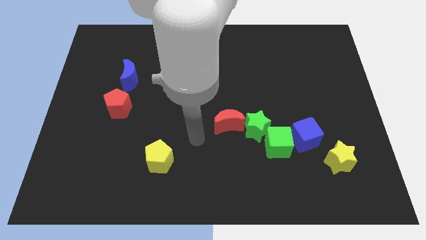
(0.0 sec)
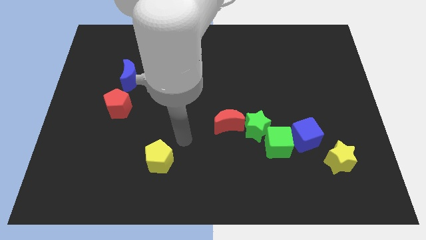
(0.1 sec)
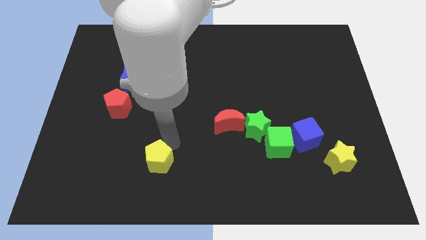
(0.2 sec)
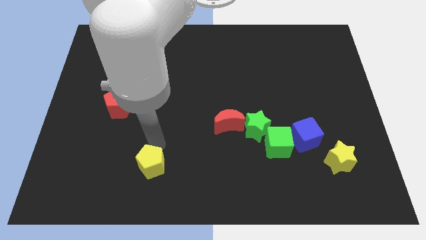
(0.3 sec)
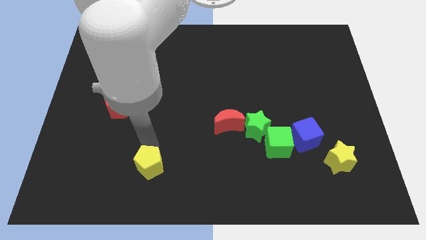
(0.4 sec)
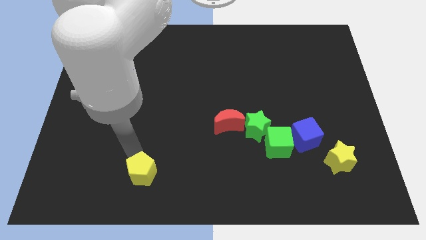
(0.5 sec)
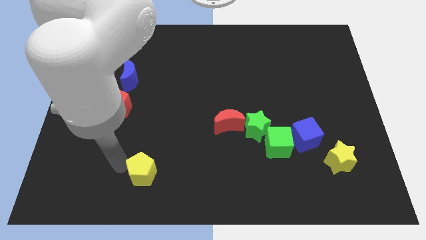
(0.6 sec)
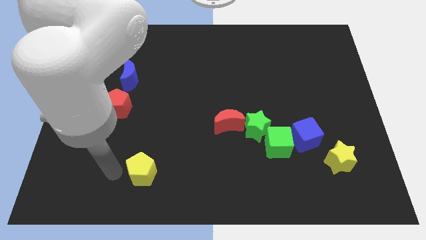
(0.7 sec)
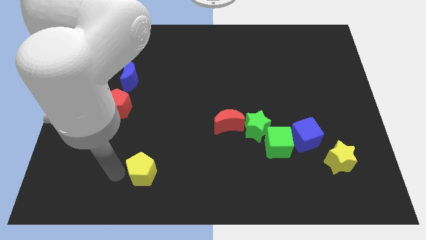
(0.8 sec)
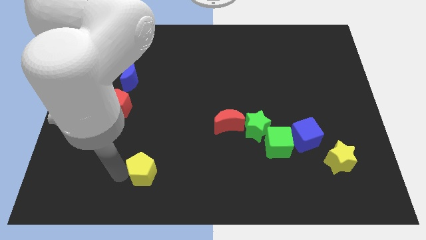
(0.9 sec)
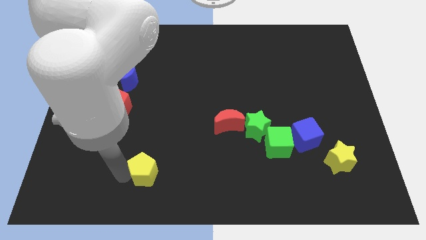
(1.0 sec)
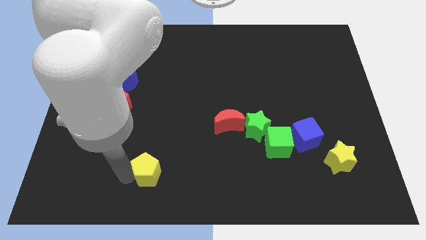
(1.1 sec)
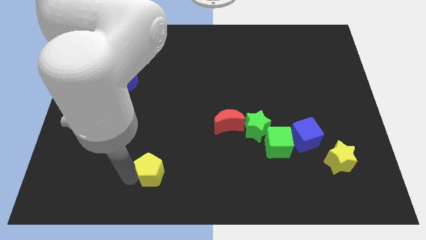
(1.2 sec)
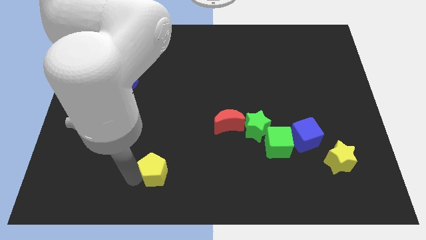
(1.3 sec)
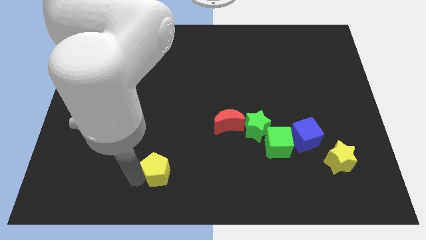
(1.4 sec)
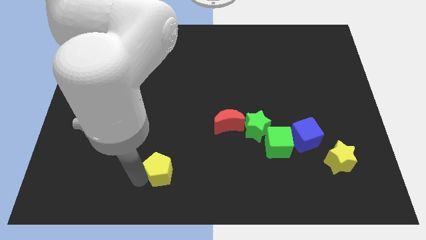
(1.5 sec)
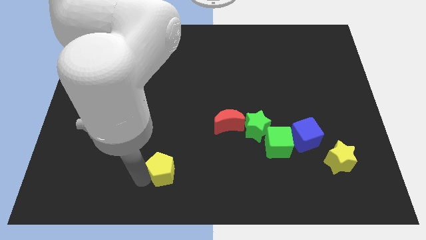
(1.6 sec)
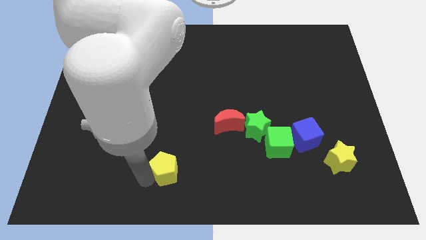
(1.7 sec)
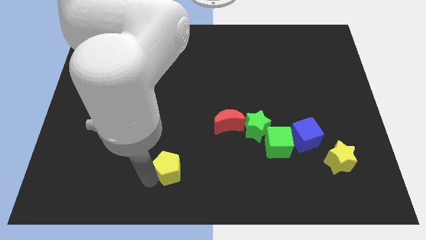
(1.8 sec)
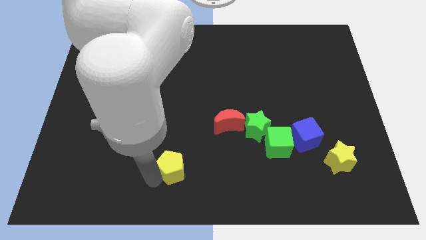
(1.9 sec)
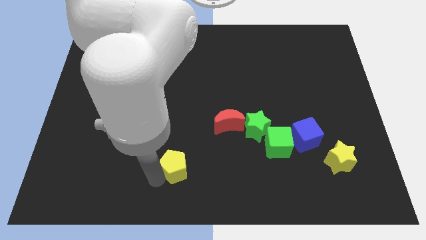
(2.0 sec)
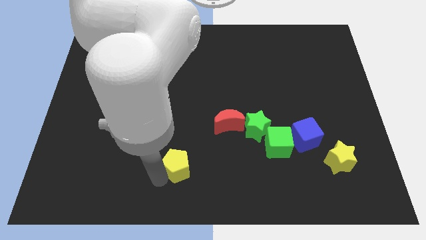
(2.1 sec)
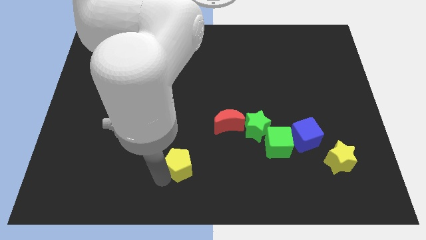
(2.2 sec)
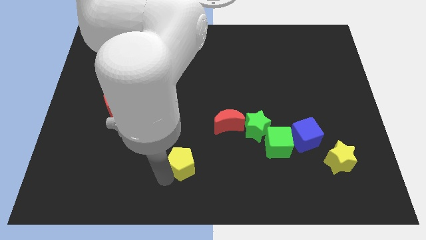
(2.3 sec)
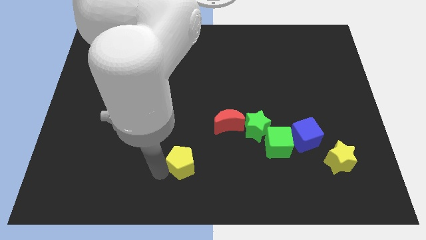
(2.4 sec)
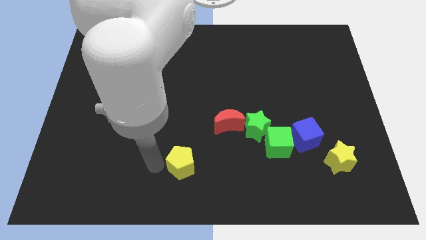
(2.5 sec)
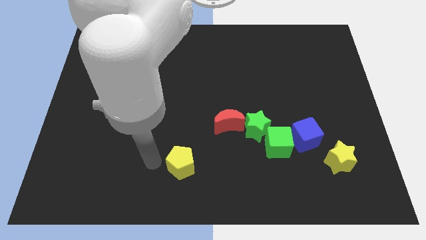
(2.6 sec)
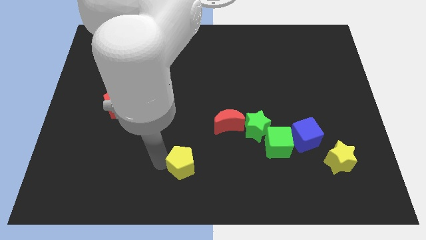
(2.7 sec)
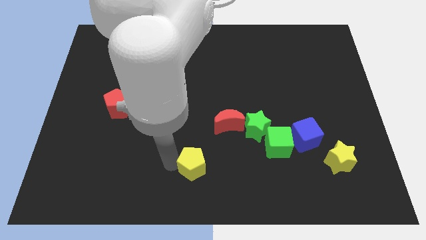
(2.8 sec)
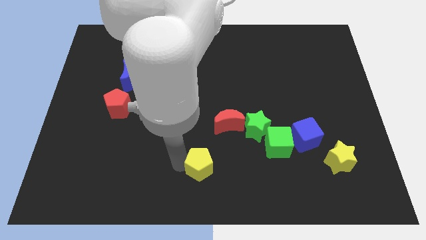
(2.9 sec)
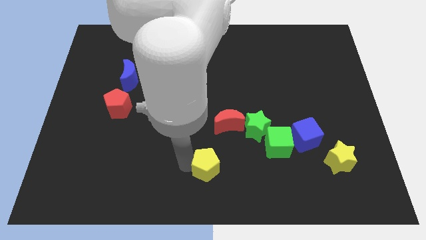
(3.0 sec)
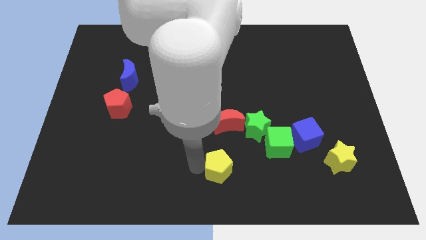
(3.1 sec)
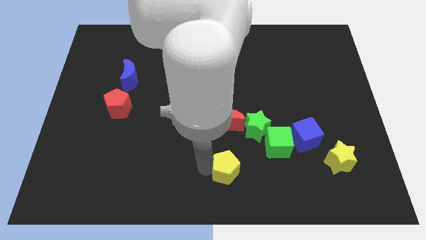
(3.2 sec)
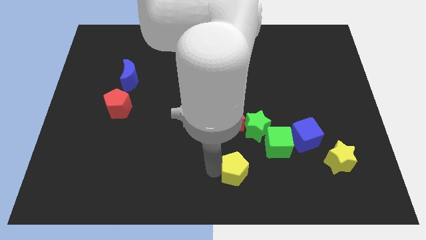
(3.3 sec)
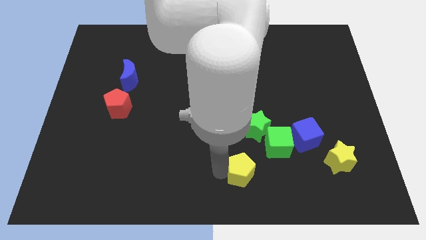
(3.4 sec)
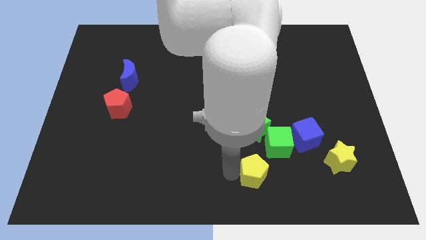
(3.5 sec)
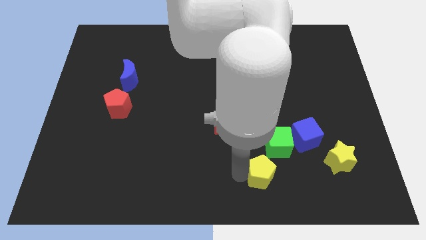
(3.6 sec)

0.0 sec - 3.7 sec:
move the yellow pentagon right

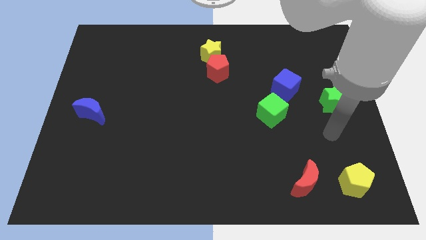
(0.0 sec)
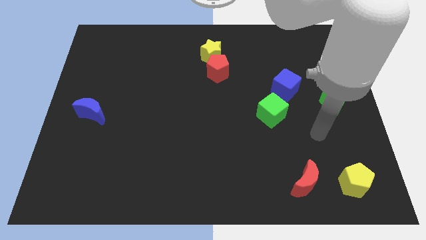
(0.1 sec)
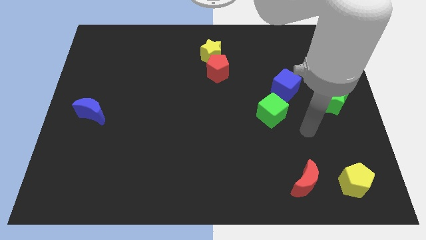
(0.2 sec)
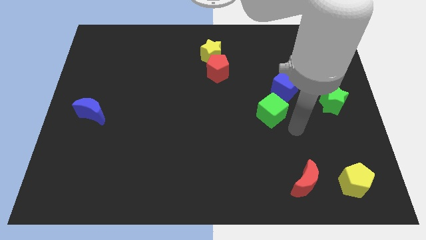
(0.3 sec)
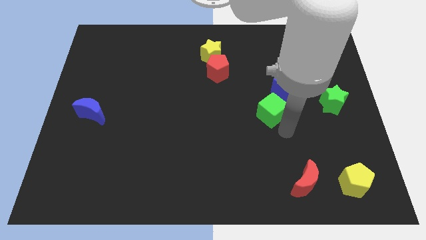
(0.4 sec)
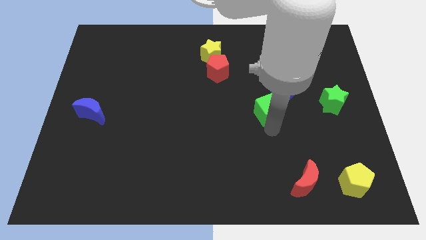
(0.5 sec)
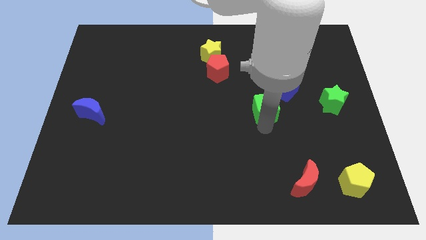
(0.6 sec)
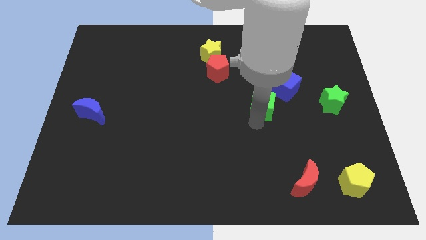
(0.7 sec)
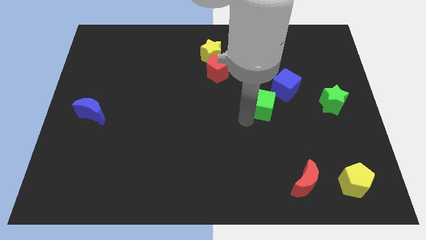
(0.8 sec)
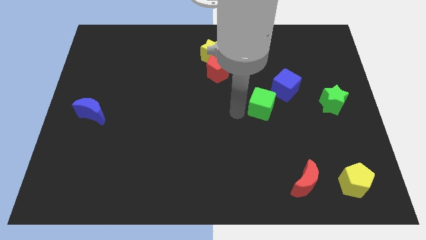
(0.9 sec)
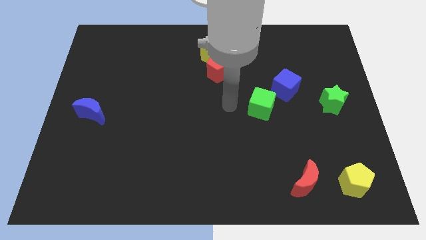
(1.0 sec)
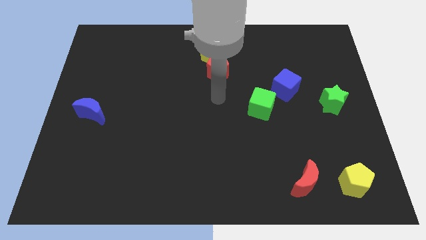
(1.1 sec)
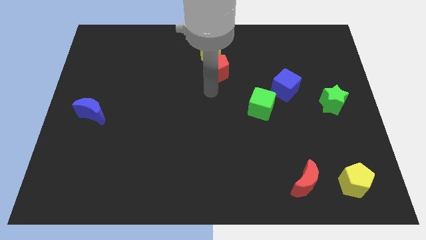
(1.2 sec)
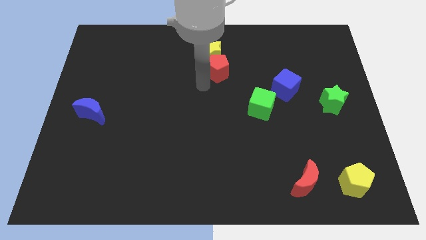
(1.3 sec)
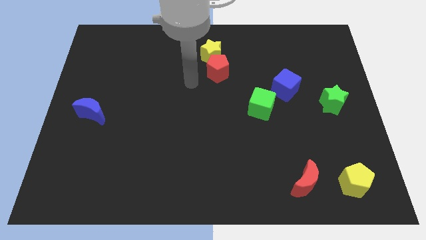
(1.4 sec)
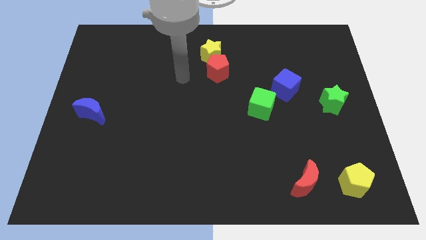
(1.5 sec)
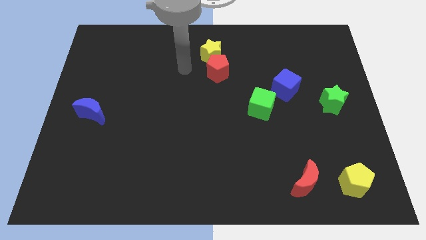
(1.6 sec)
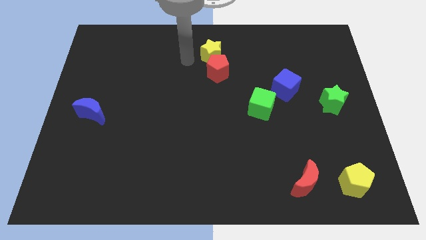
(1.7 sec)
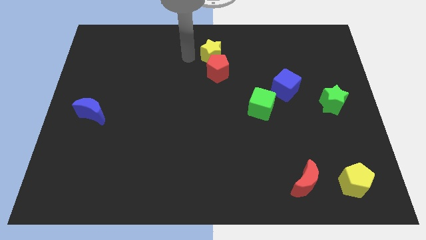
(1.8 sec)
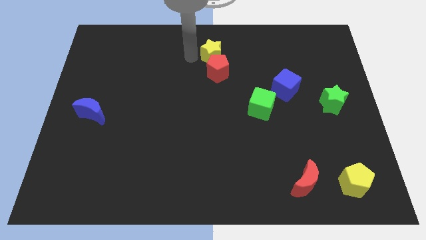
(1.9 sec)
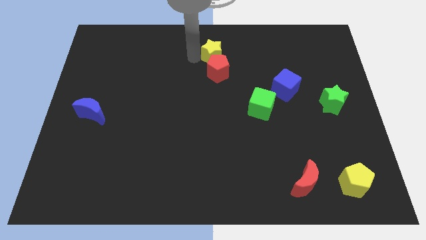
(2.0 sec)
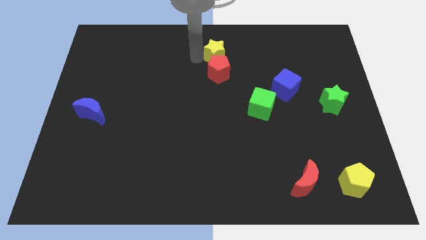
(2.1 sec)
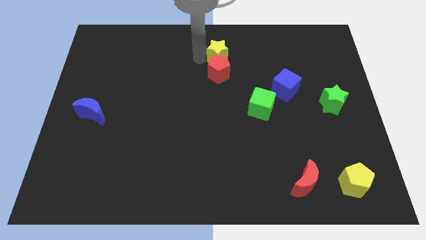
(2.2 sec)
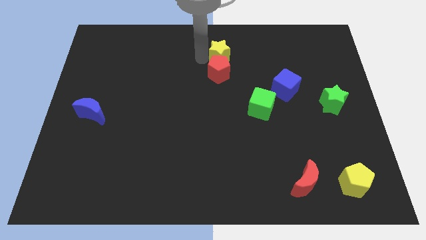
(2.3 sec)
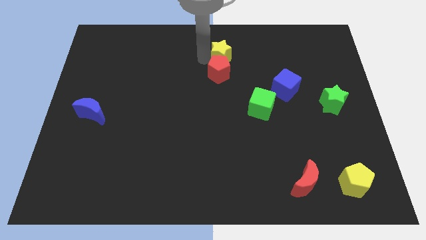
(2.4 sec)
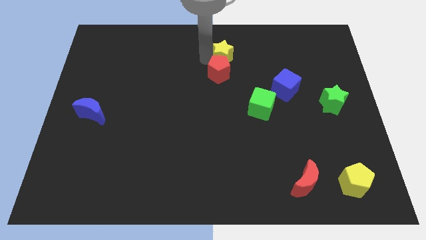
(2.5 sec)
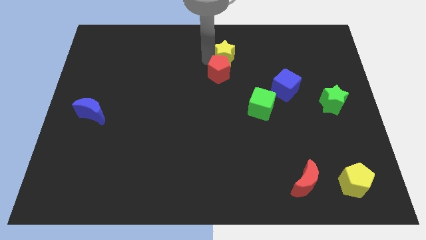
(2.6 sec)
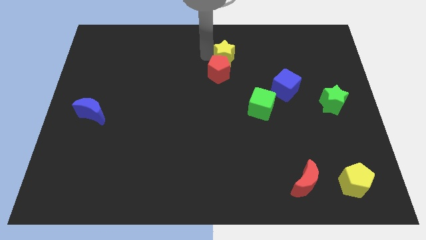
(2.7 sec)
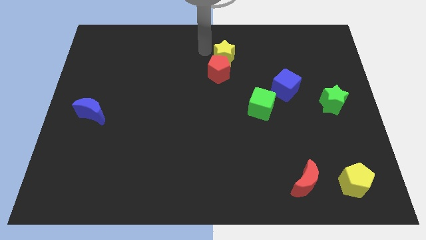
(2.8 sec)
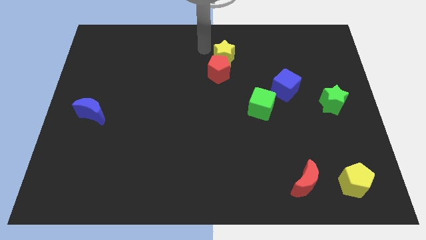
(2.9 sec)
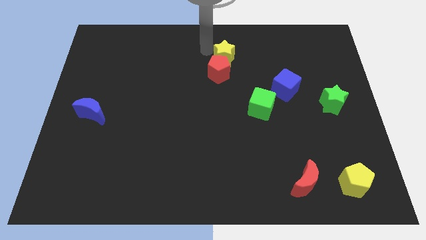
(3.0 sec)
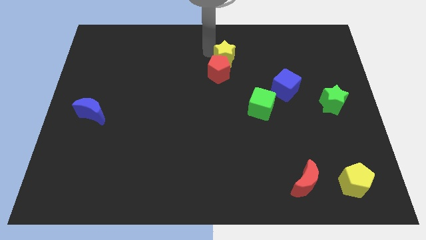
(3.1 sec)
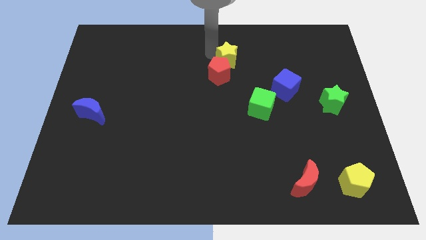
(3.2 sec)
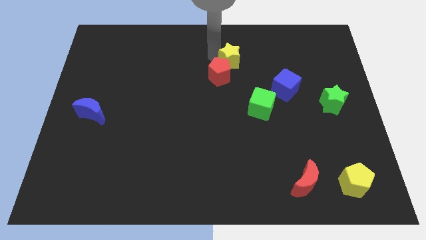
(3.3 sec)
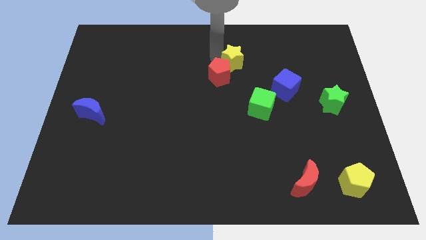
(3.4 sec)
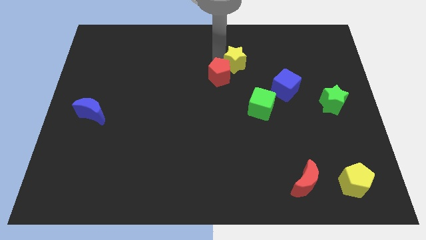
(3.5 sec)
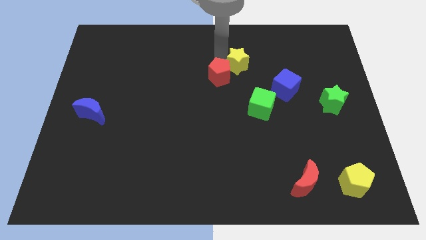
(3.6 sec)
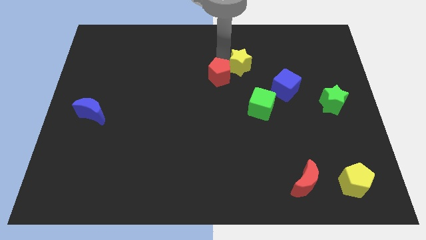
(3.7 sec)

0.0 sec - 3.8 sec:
slightly move the yellow star down and to the right

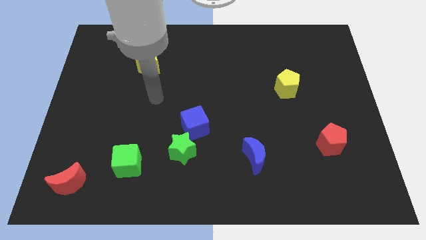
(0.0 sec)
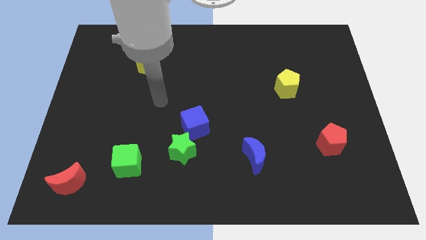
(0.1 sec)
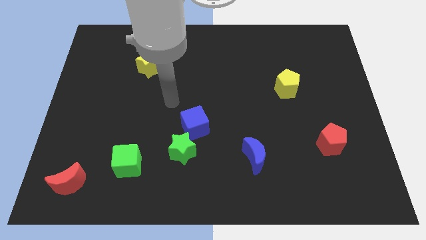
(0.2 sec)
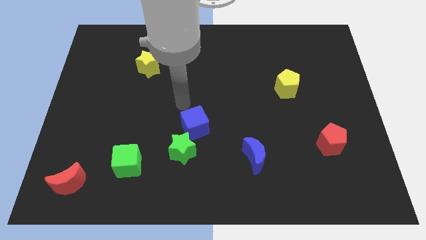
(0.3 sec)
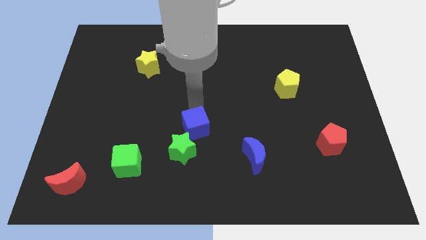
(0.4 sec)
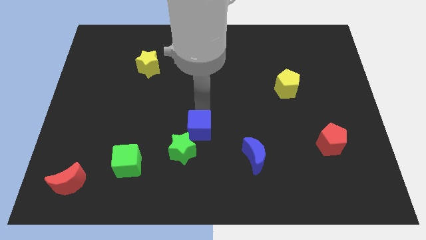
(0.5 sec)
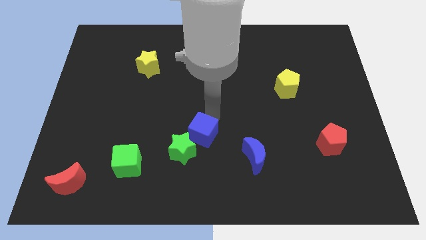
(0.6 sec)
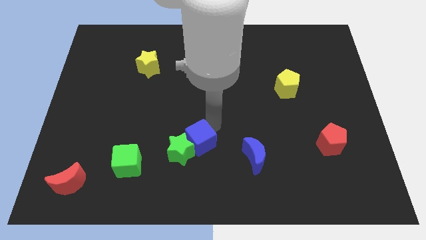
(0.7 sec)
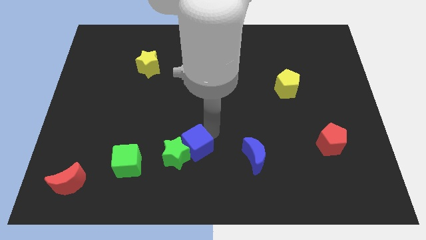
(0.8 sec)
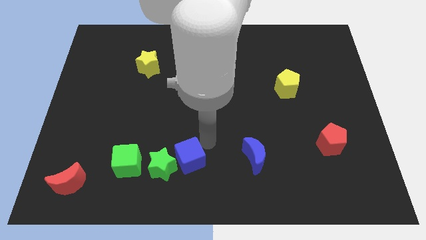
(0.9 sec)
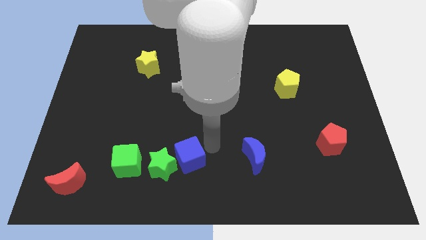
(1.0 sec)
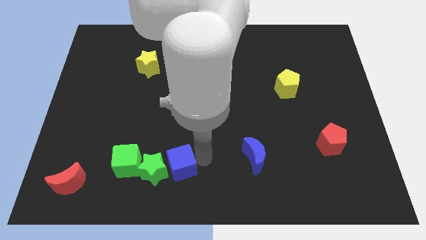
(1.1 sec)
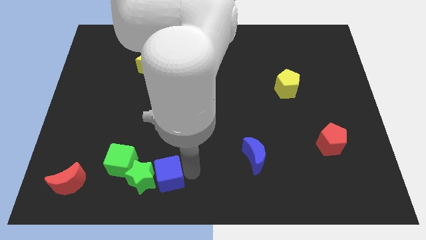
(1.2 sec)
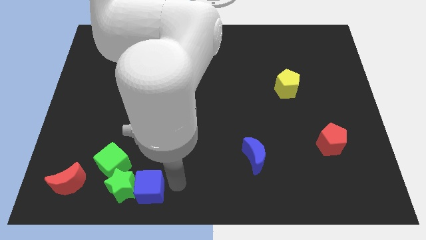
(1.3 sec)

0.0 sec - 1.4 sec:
move the green star left a little
